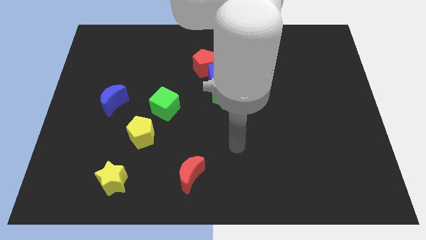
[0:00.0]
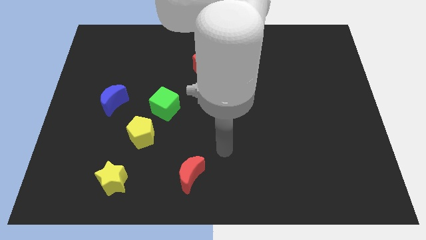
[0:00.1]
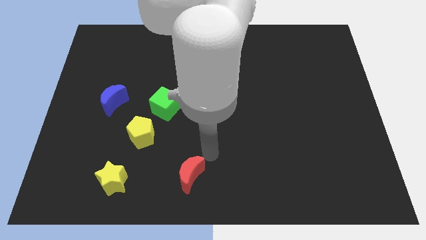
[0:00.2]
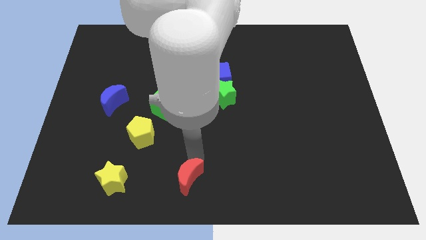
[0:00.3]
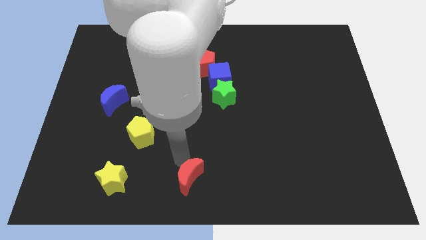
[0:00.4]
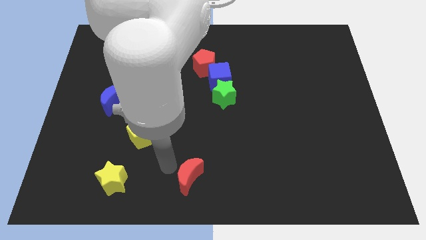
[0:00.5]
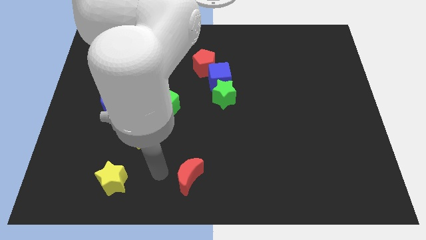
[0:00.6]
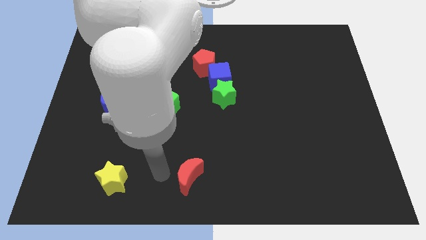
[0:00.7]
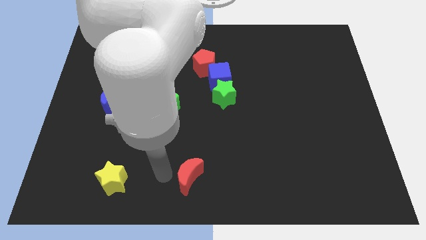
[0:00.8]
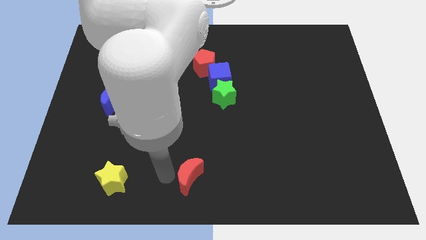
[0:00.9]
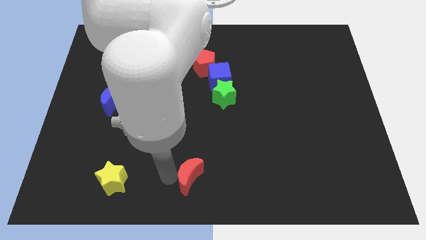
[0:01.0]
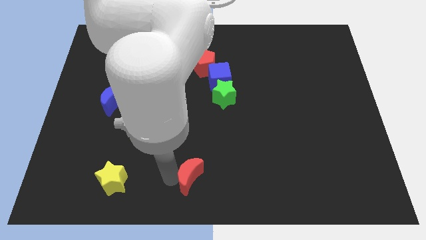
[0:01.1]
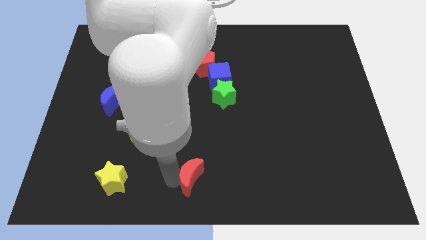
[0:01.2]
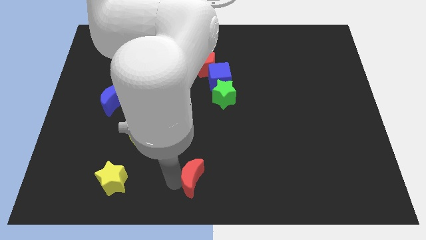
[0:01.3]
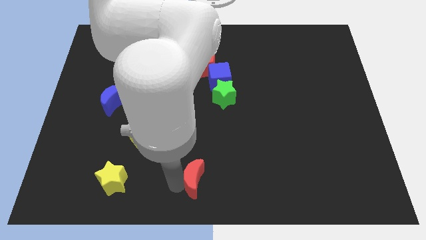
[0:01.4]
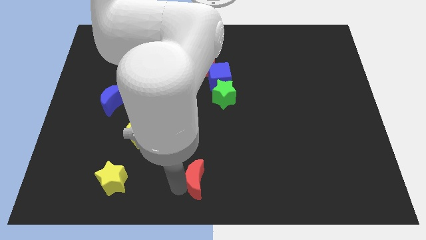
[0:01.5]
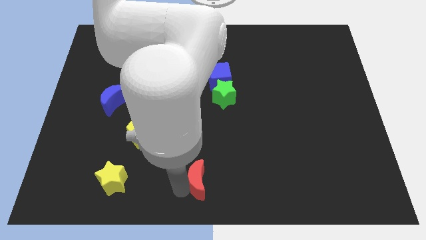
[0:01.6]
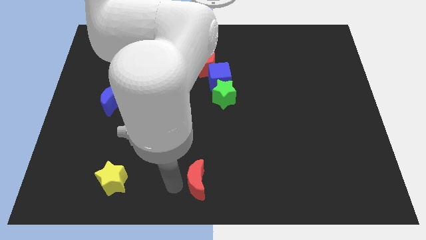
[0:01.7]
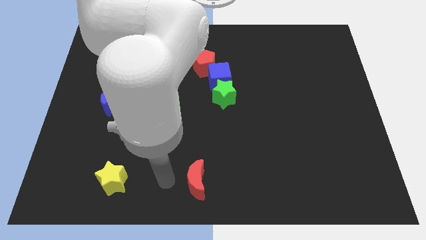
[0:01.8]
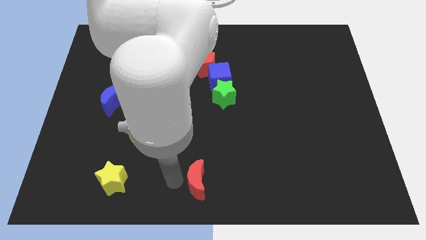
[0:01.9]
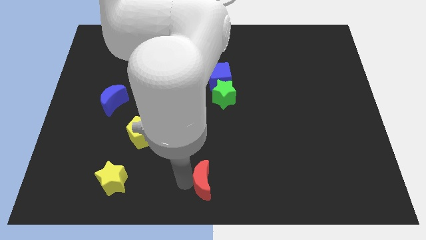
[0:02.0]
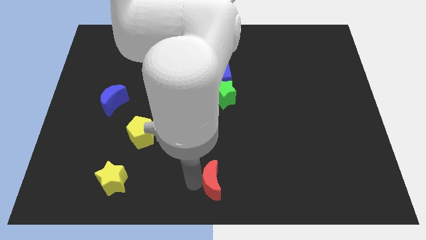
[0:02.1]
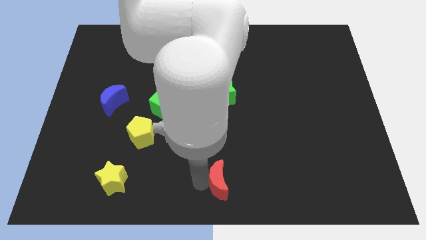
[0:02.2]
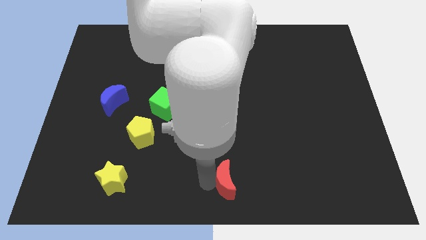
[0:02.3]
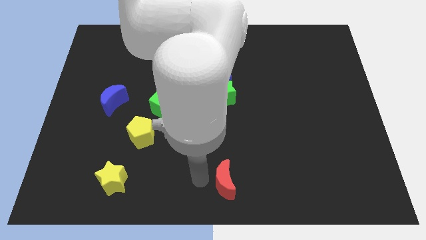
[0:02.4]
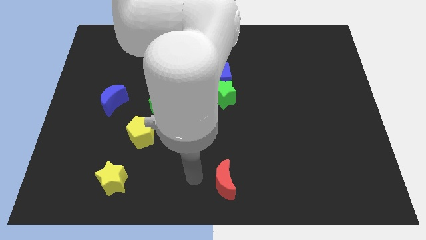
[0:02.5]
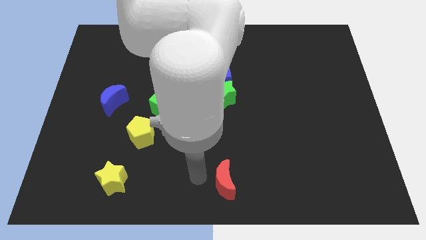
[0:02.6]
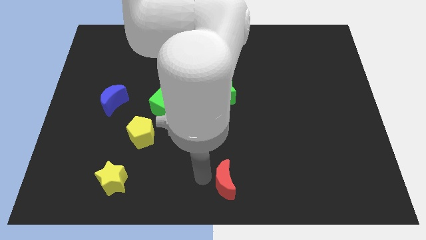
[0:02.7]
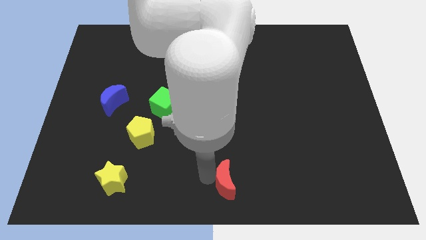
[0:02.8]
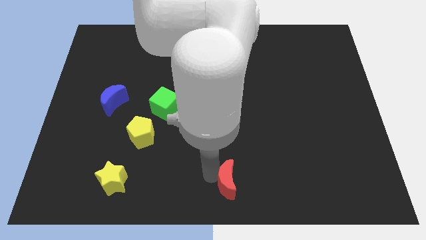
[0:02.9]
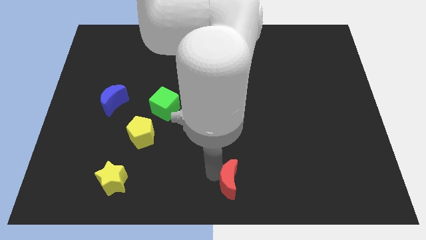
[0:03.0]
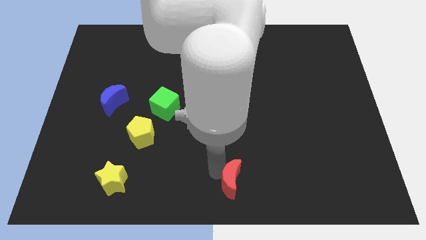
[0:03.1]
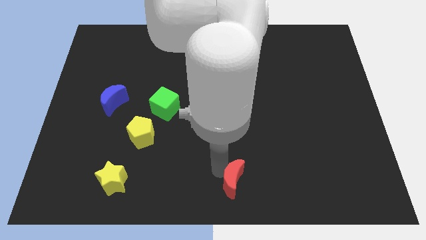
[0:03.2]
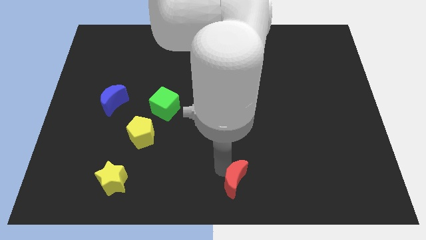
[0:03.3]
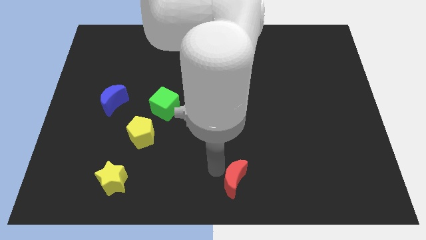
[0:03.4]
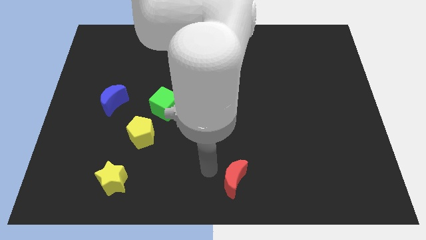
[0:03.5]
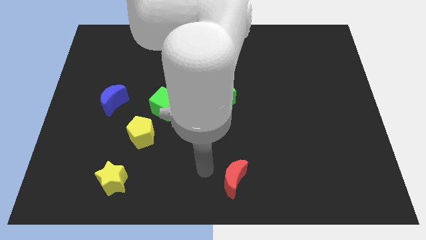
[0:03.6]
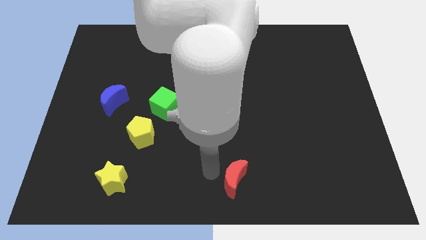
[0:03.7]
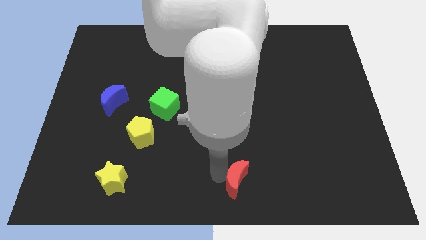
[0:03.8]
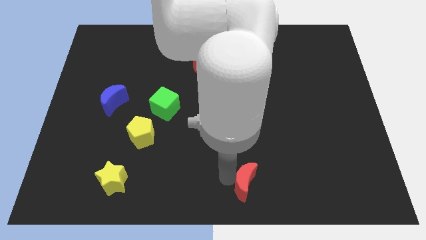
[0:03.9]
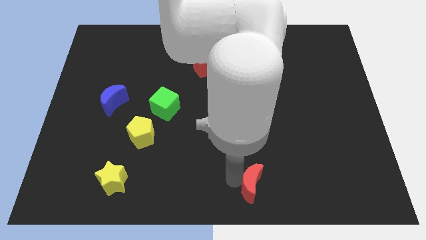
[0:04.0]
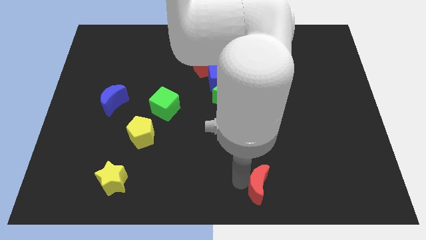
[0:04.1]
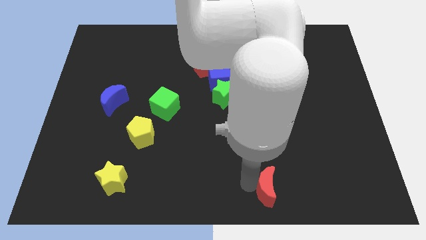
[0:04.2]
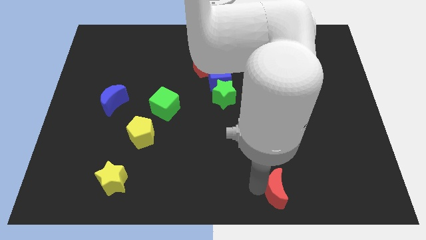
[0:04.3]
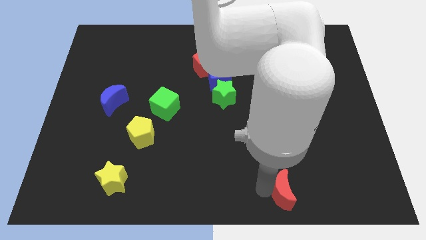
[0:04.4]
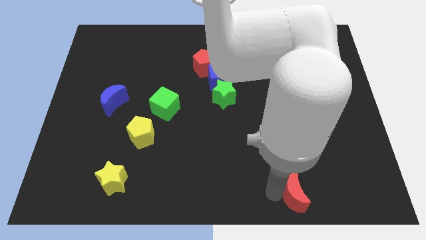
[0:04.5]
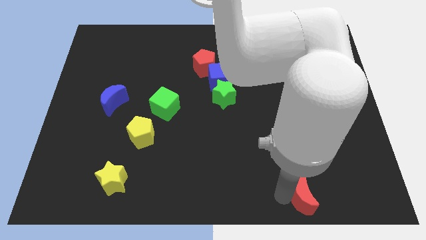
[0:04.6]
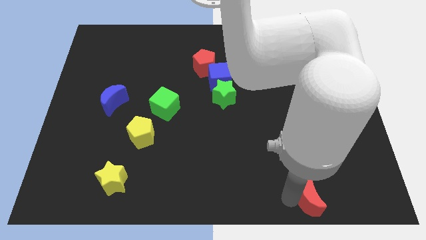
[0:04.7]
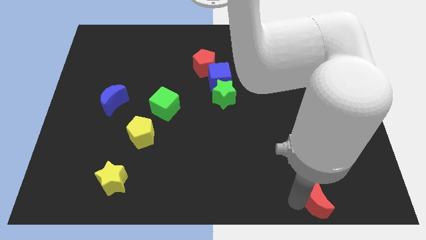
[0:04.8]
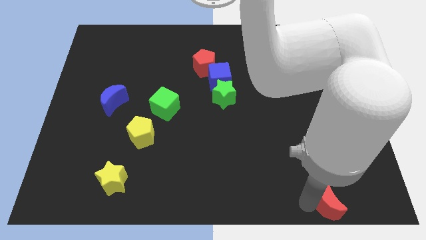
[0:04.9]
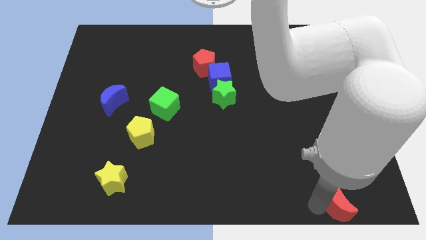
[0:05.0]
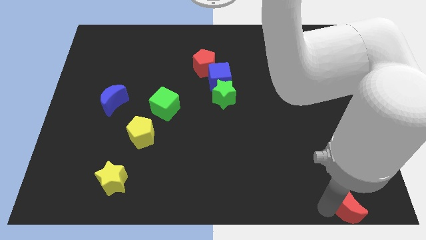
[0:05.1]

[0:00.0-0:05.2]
put the red moon to the bottom right
